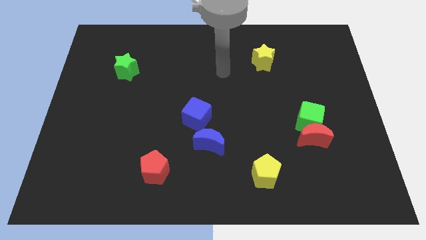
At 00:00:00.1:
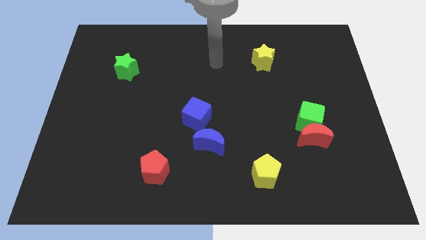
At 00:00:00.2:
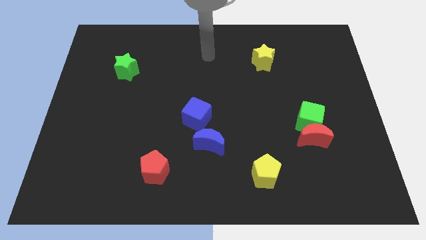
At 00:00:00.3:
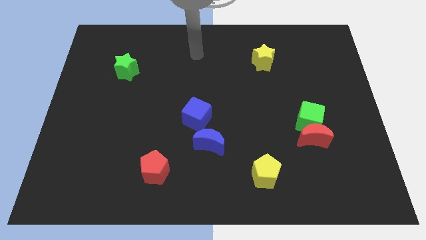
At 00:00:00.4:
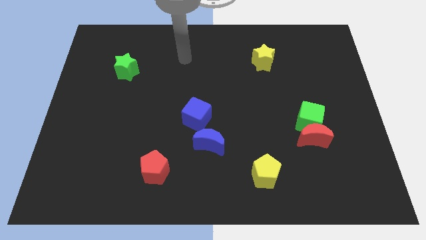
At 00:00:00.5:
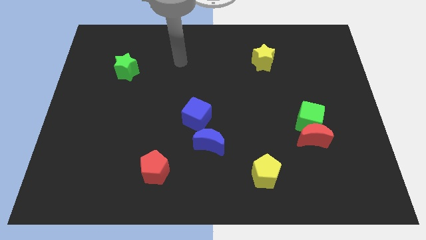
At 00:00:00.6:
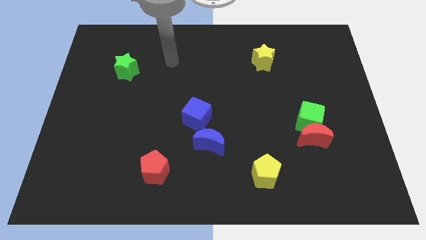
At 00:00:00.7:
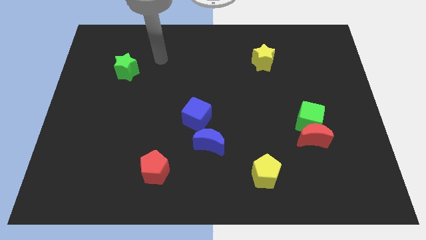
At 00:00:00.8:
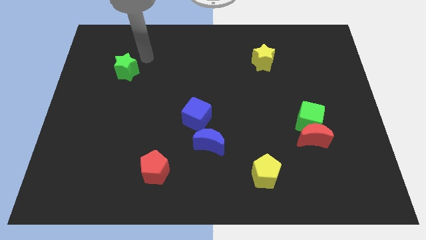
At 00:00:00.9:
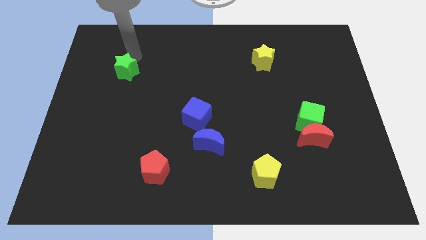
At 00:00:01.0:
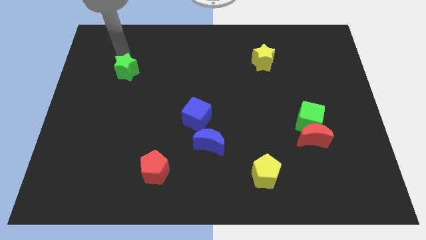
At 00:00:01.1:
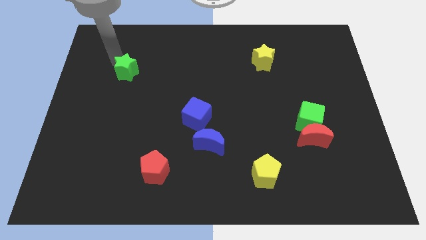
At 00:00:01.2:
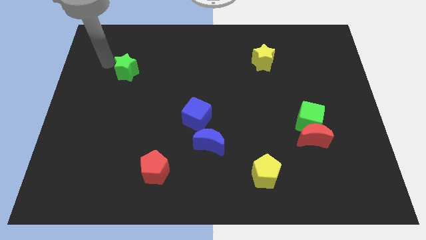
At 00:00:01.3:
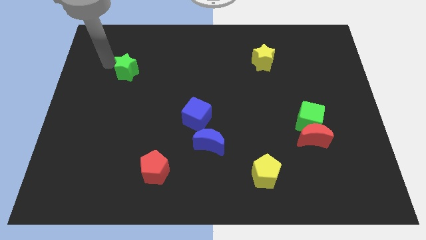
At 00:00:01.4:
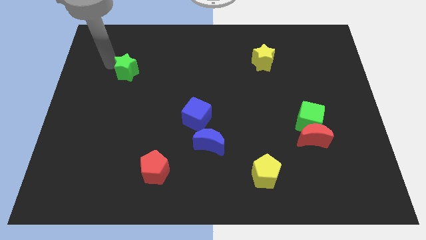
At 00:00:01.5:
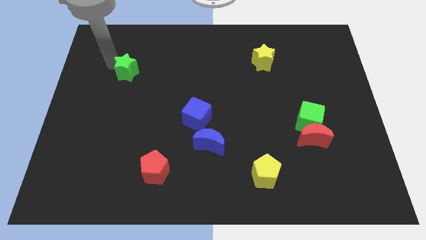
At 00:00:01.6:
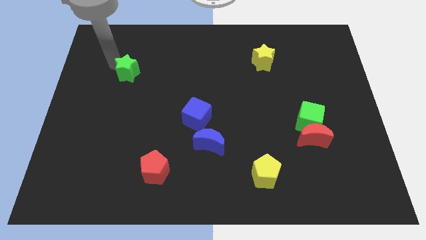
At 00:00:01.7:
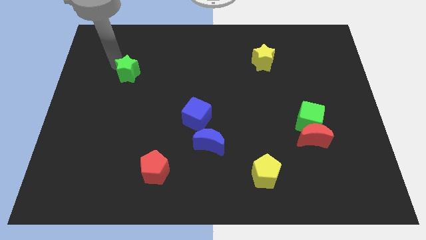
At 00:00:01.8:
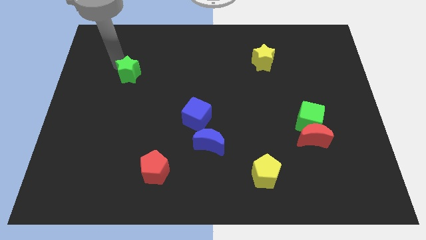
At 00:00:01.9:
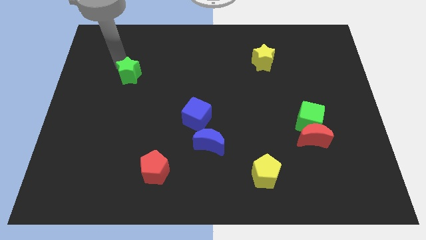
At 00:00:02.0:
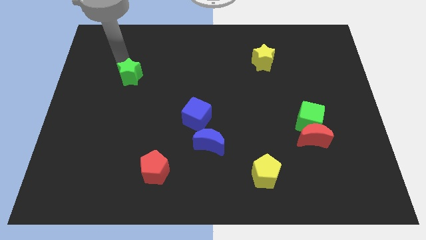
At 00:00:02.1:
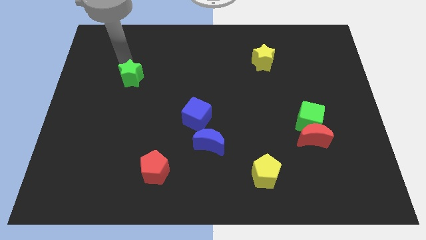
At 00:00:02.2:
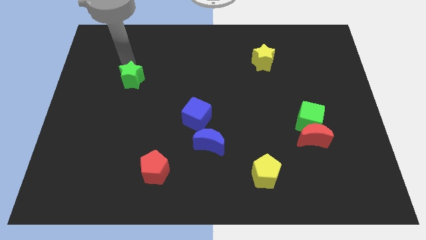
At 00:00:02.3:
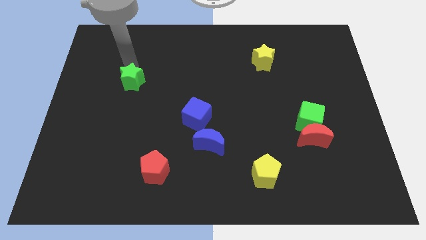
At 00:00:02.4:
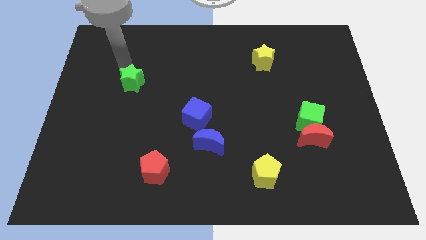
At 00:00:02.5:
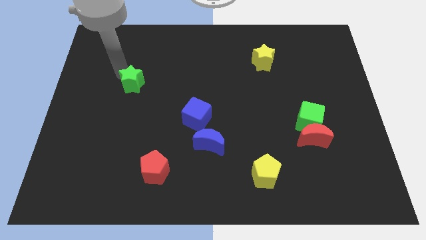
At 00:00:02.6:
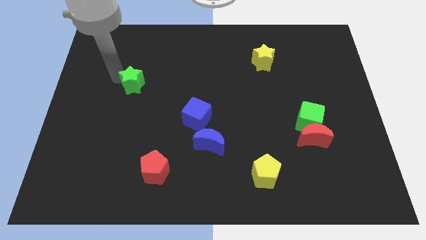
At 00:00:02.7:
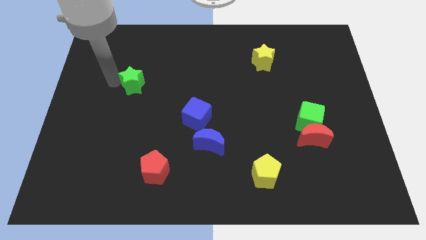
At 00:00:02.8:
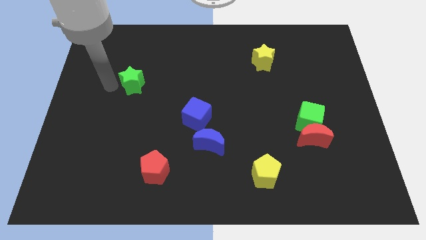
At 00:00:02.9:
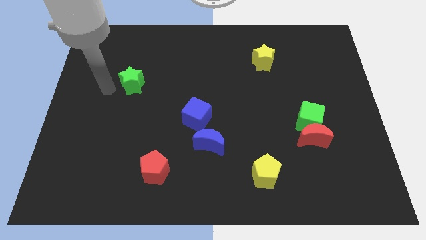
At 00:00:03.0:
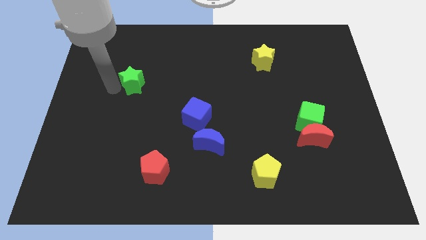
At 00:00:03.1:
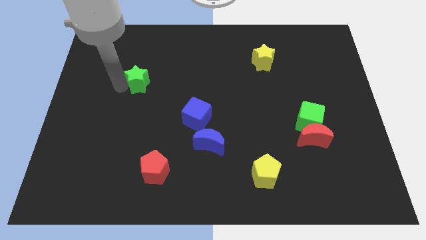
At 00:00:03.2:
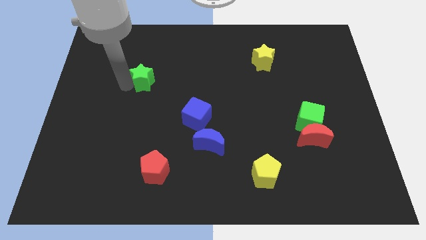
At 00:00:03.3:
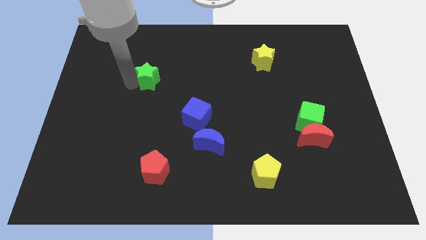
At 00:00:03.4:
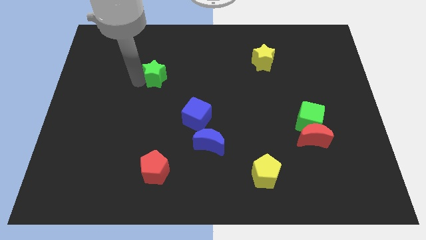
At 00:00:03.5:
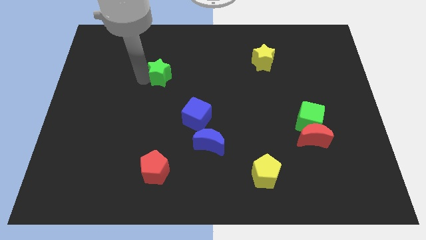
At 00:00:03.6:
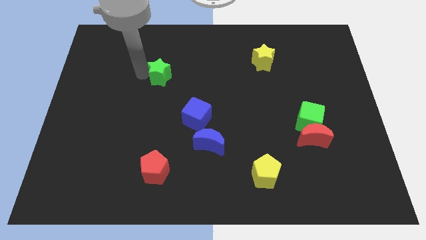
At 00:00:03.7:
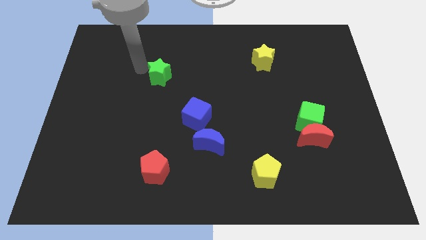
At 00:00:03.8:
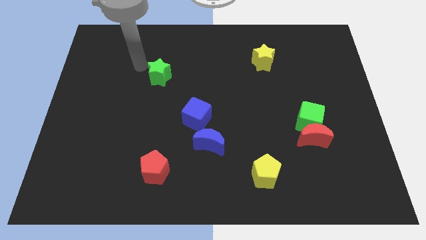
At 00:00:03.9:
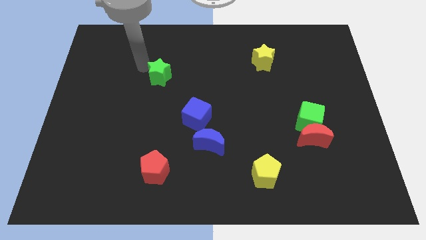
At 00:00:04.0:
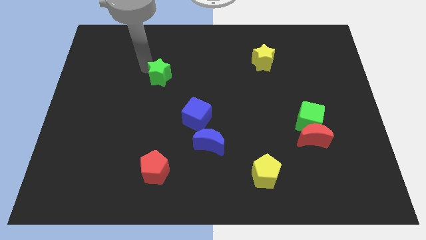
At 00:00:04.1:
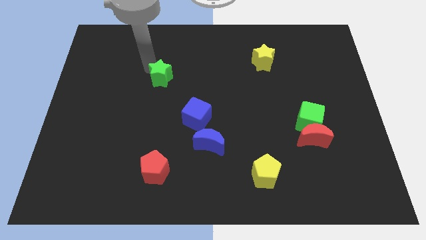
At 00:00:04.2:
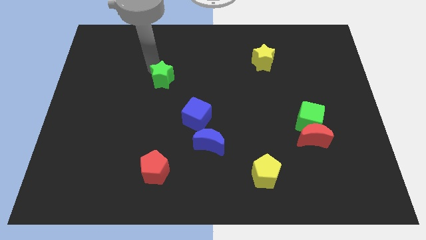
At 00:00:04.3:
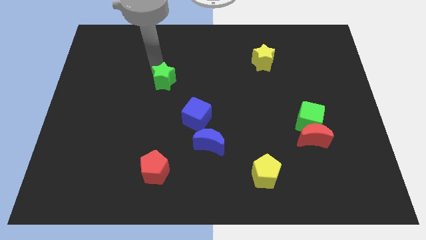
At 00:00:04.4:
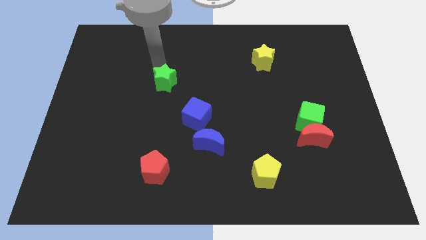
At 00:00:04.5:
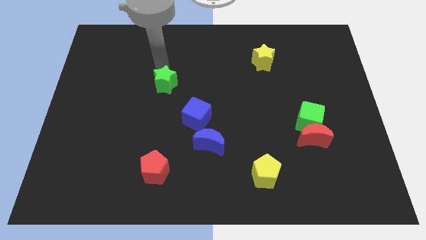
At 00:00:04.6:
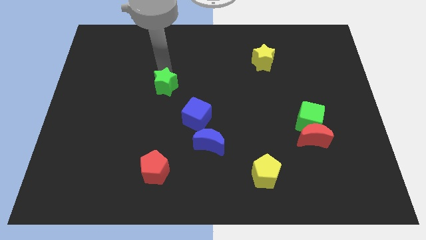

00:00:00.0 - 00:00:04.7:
push the green star to the center of the board

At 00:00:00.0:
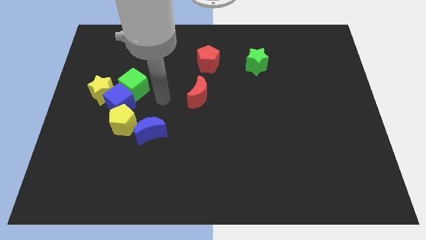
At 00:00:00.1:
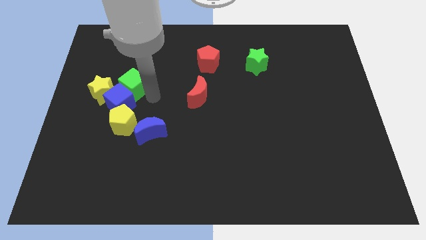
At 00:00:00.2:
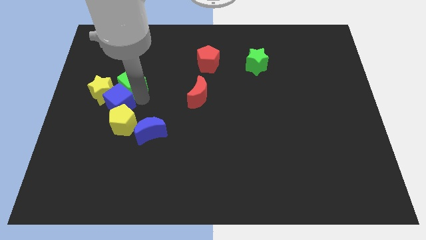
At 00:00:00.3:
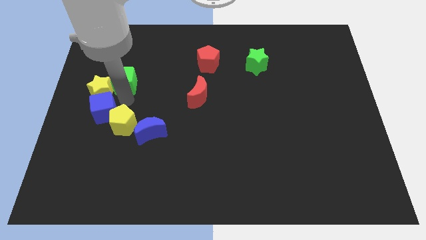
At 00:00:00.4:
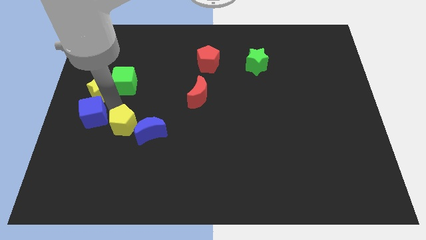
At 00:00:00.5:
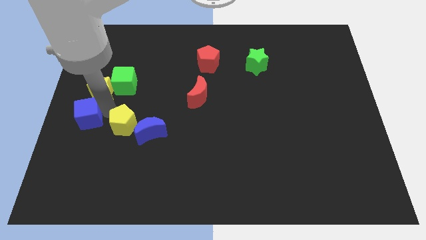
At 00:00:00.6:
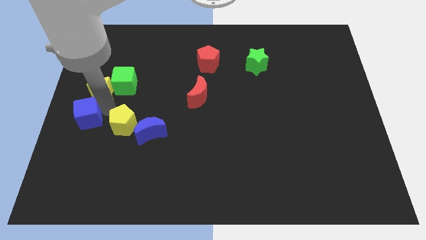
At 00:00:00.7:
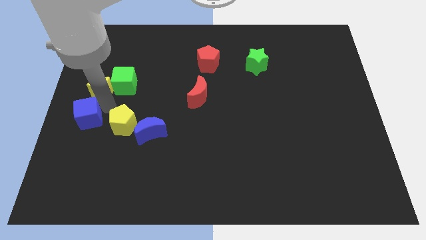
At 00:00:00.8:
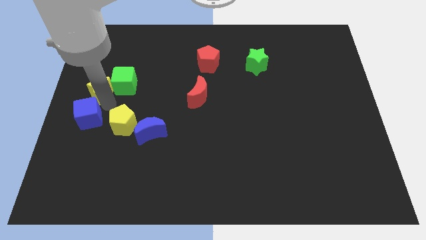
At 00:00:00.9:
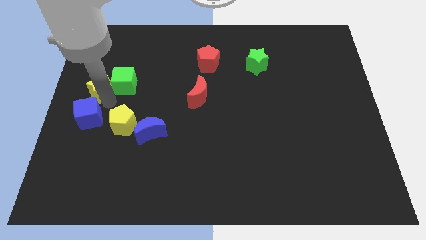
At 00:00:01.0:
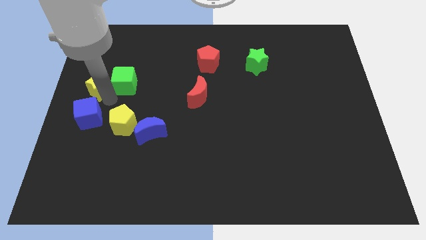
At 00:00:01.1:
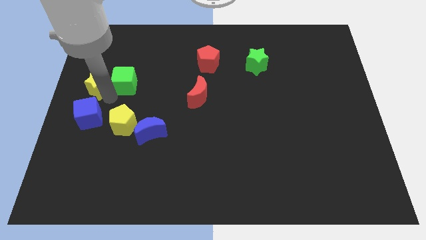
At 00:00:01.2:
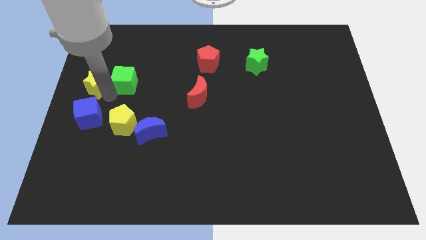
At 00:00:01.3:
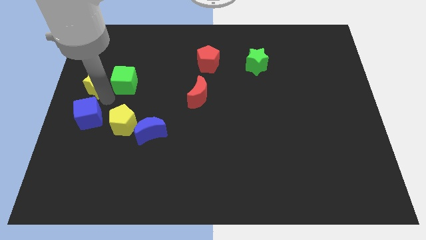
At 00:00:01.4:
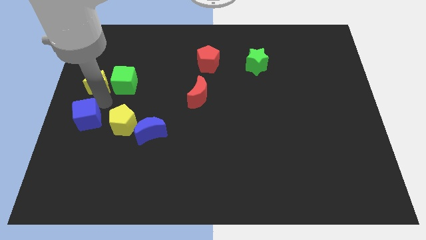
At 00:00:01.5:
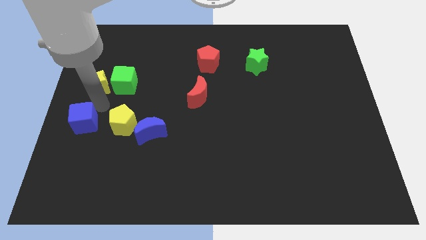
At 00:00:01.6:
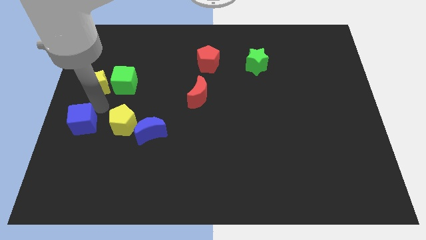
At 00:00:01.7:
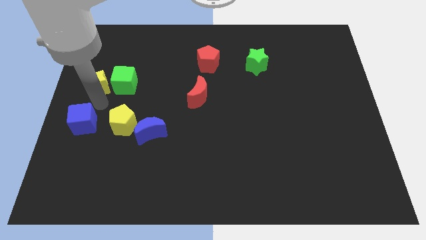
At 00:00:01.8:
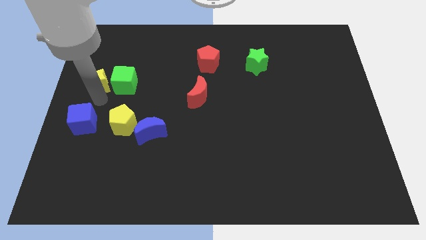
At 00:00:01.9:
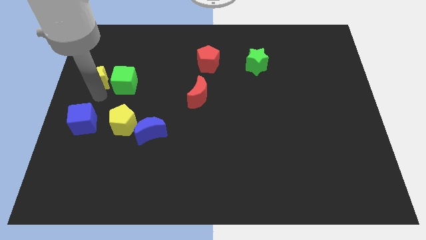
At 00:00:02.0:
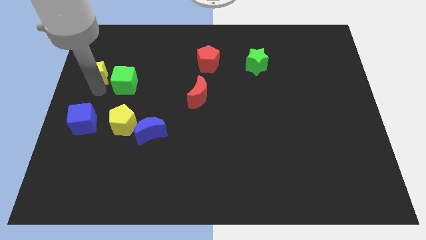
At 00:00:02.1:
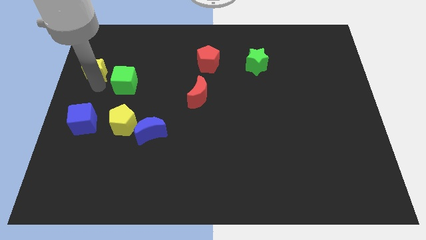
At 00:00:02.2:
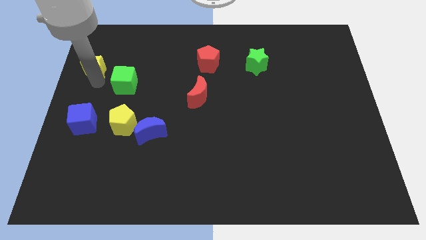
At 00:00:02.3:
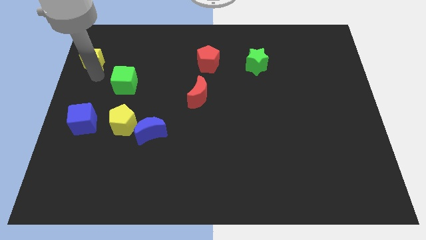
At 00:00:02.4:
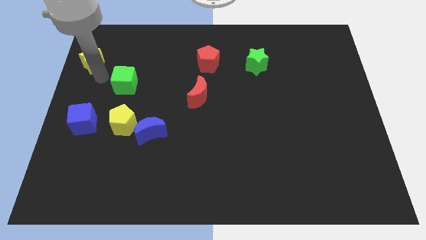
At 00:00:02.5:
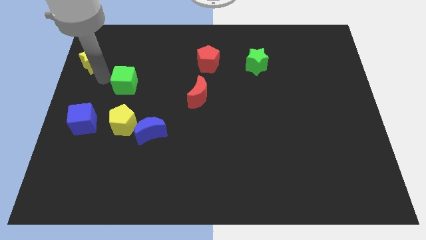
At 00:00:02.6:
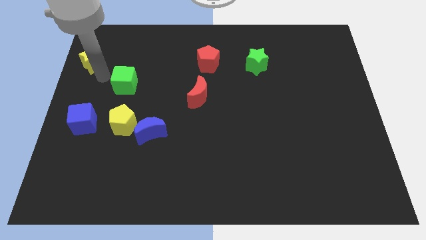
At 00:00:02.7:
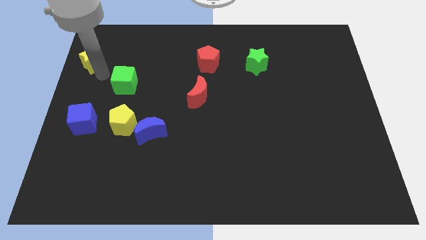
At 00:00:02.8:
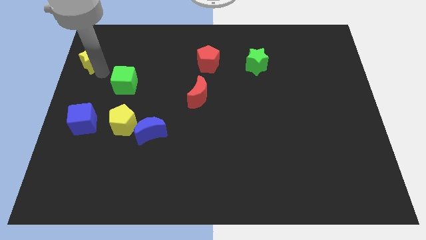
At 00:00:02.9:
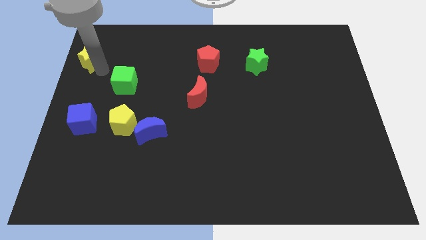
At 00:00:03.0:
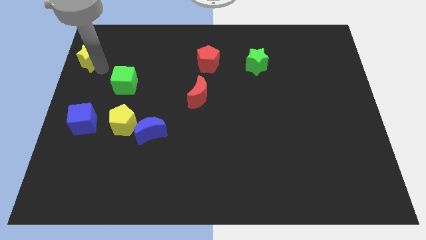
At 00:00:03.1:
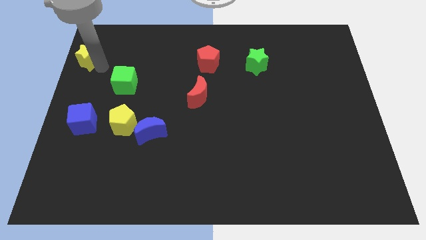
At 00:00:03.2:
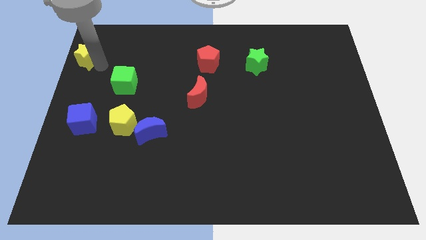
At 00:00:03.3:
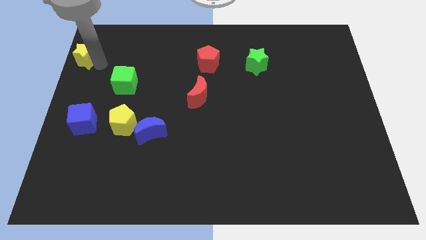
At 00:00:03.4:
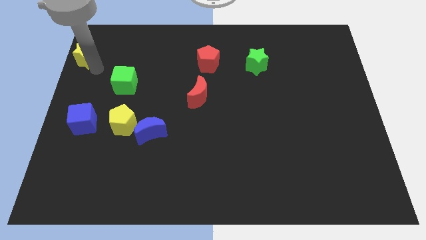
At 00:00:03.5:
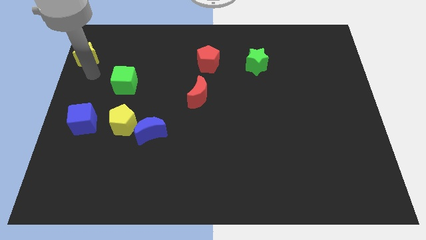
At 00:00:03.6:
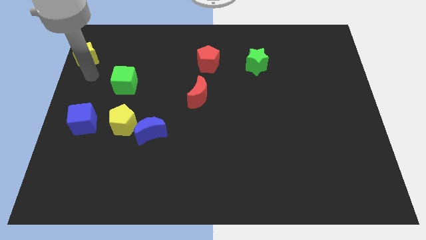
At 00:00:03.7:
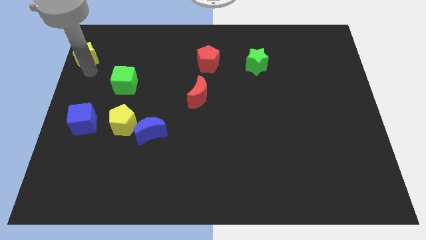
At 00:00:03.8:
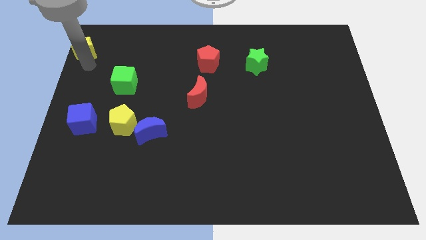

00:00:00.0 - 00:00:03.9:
slide the yellow star to the top left
